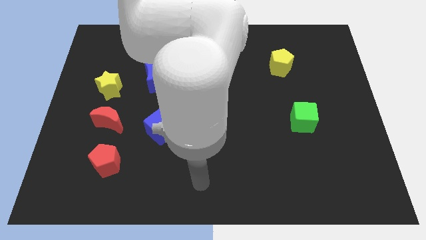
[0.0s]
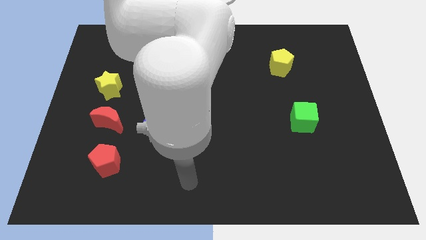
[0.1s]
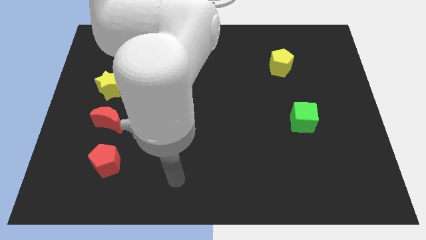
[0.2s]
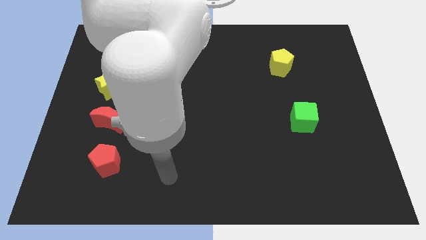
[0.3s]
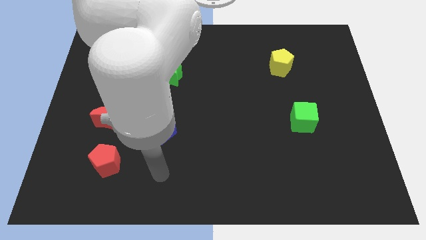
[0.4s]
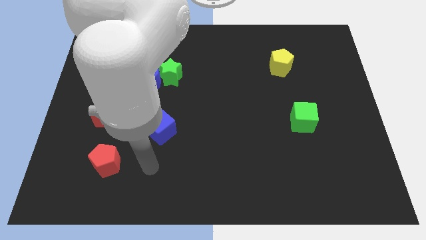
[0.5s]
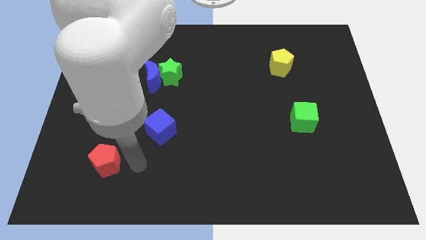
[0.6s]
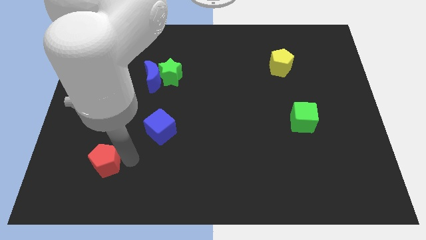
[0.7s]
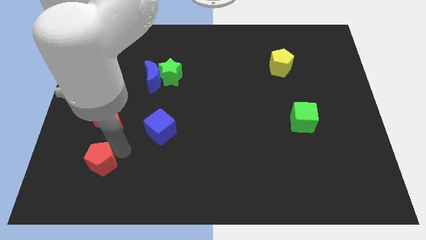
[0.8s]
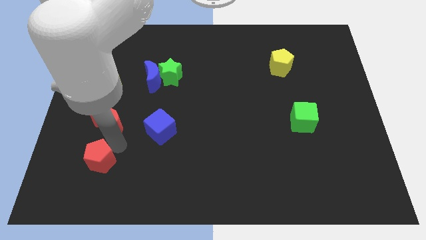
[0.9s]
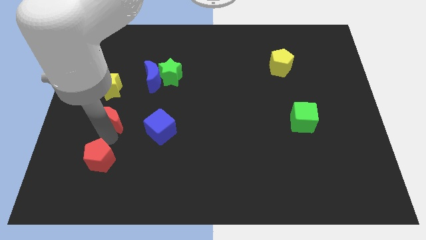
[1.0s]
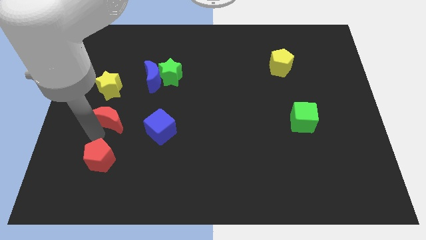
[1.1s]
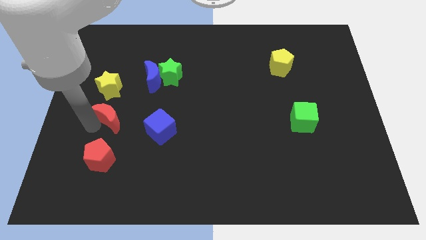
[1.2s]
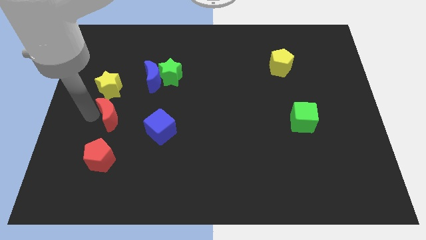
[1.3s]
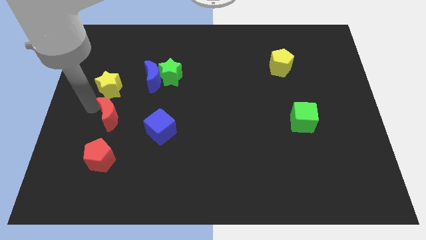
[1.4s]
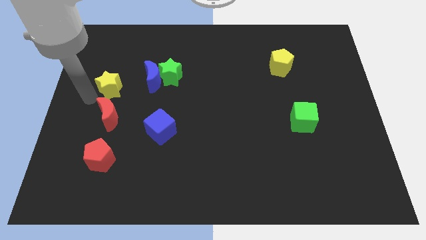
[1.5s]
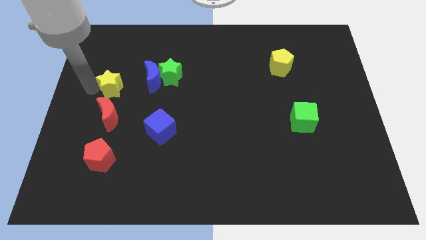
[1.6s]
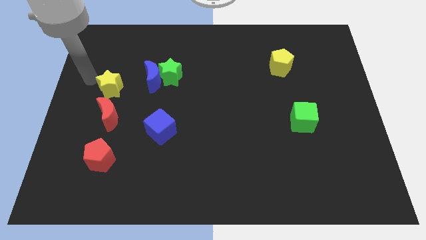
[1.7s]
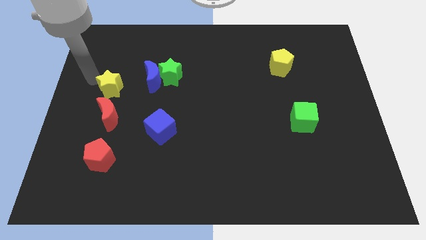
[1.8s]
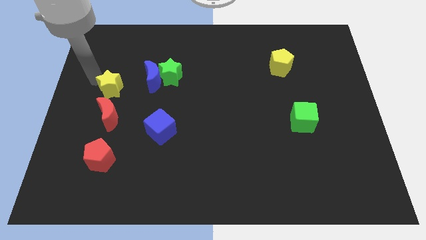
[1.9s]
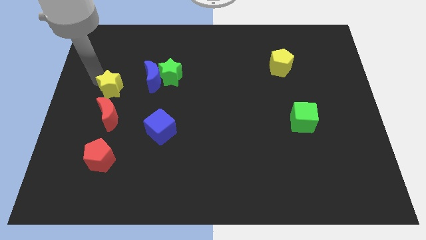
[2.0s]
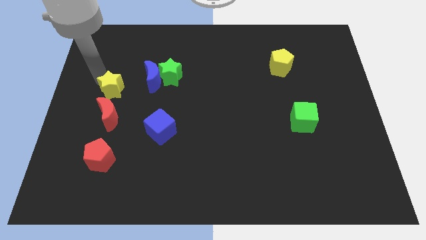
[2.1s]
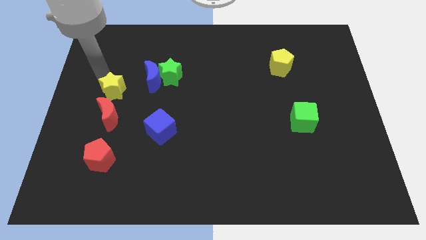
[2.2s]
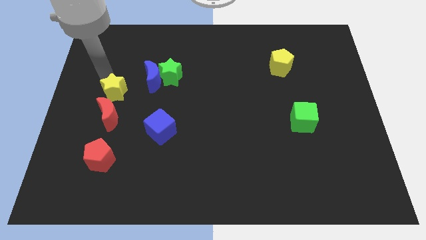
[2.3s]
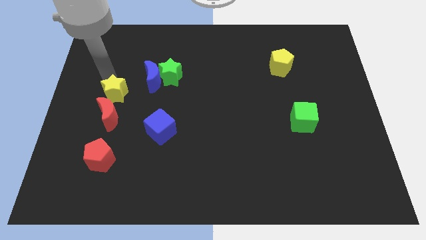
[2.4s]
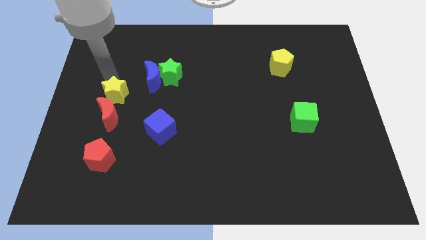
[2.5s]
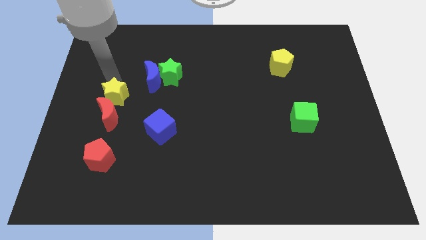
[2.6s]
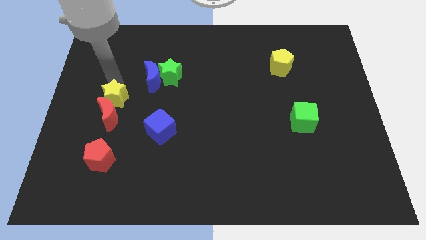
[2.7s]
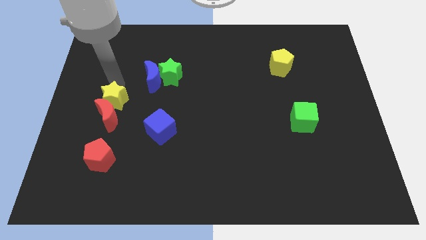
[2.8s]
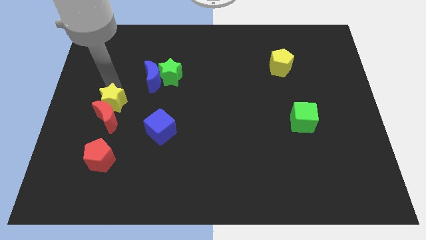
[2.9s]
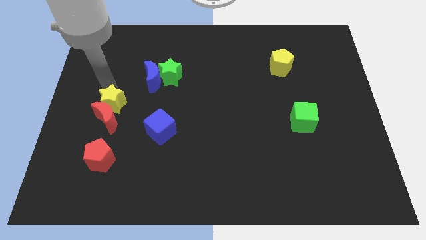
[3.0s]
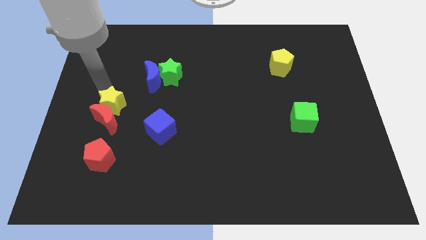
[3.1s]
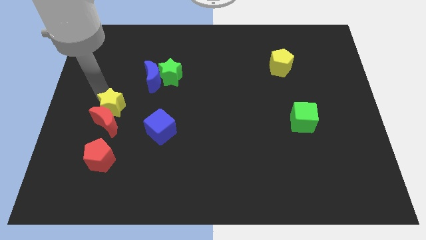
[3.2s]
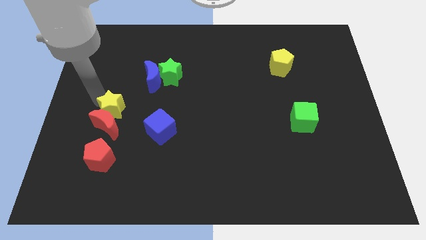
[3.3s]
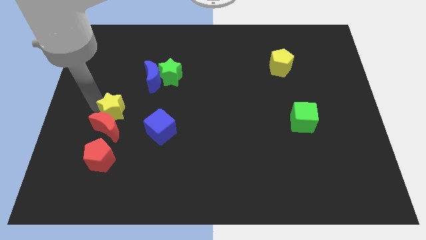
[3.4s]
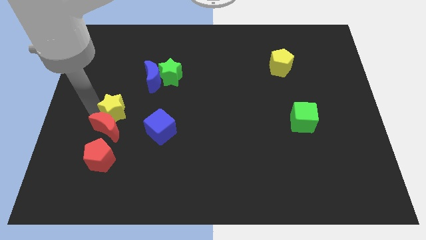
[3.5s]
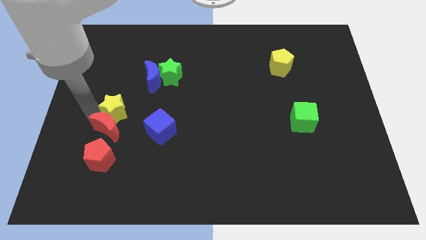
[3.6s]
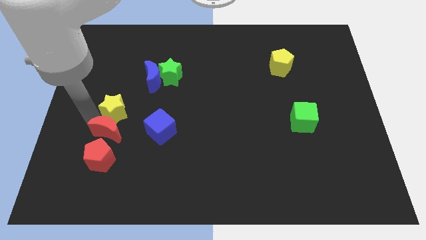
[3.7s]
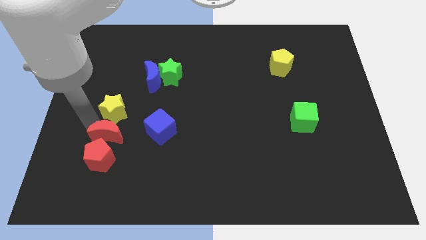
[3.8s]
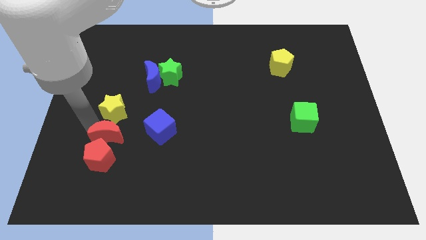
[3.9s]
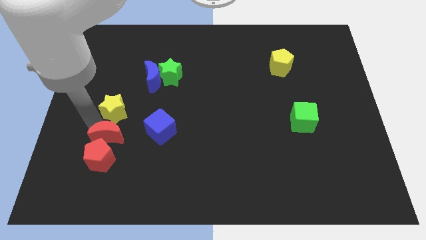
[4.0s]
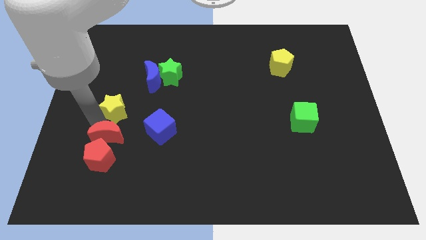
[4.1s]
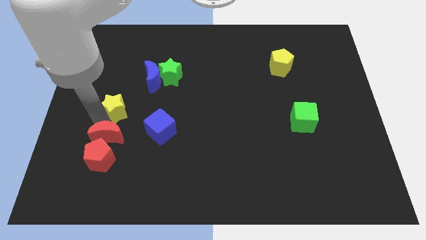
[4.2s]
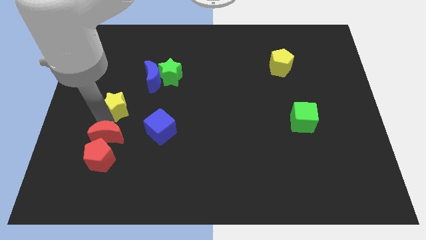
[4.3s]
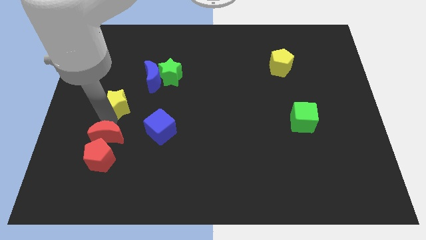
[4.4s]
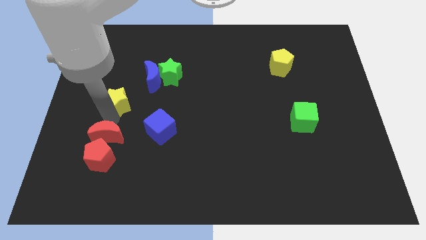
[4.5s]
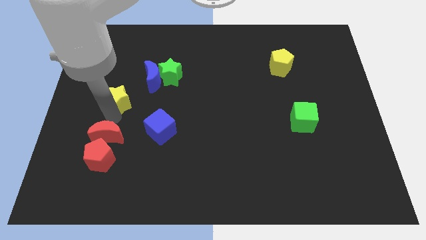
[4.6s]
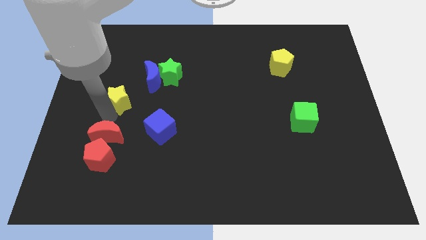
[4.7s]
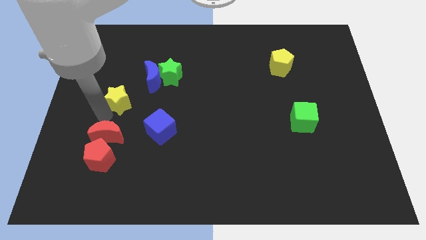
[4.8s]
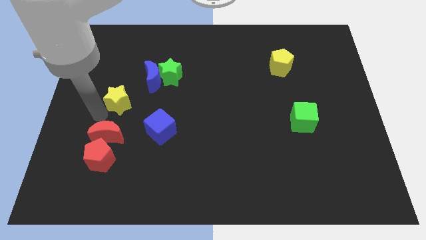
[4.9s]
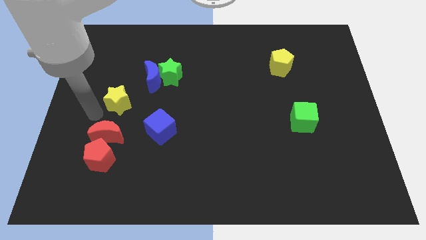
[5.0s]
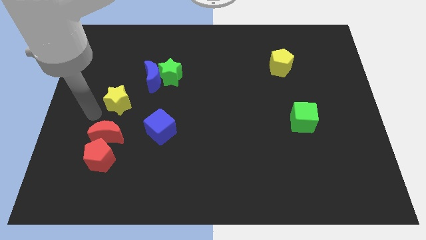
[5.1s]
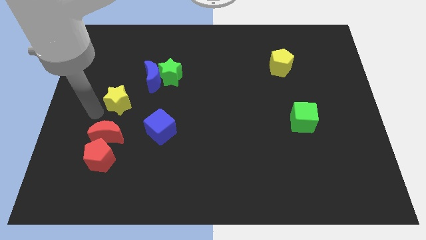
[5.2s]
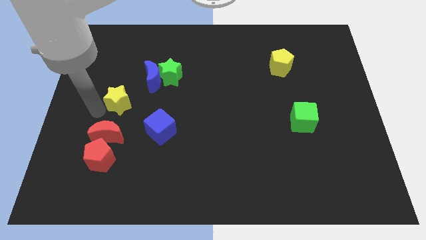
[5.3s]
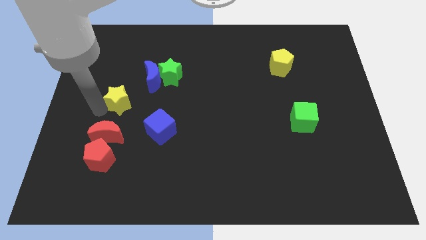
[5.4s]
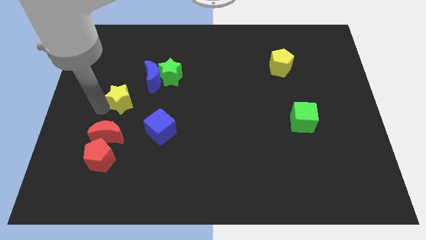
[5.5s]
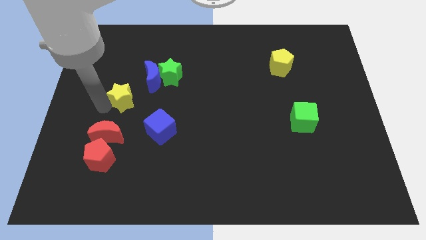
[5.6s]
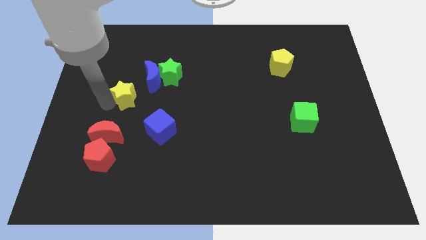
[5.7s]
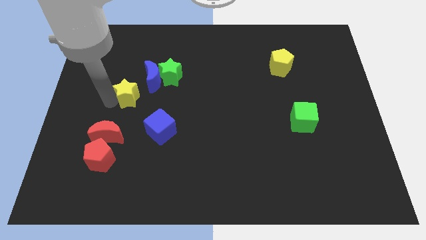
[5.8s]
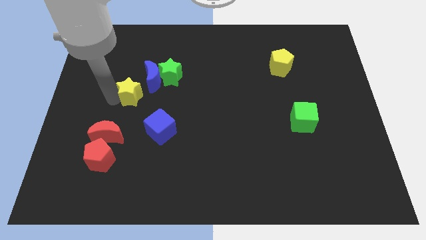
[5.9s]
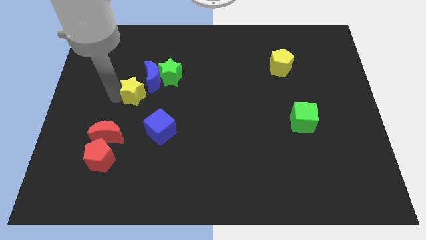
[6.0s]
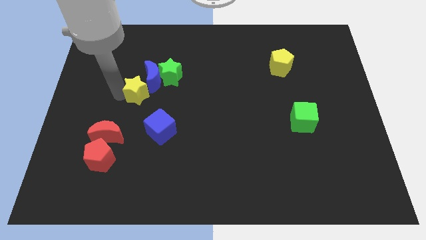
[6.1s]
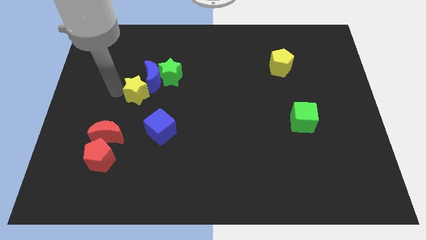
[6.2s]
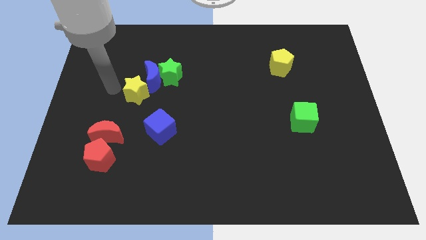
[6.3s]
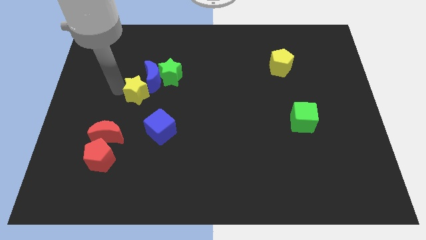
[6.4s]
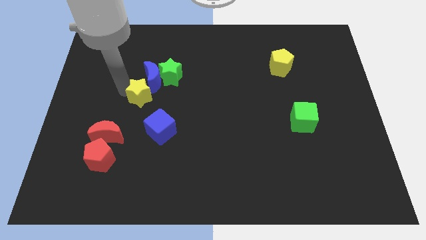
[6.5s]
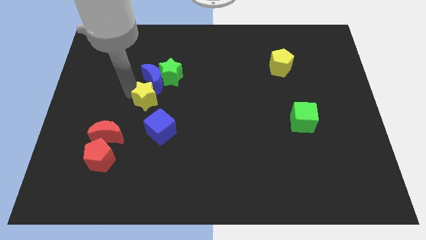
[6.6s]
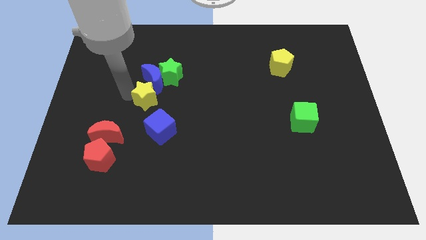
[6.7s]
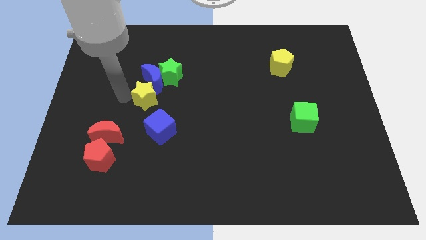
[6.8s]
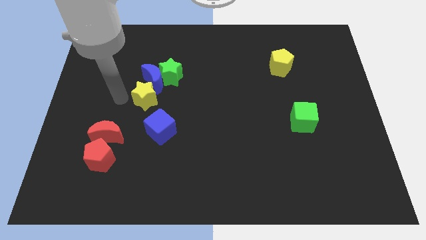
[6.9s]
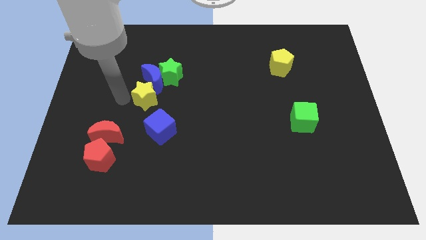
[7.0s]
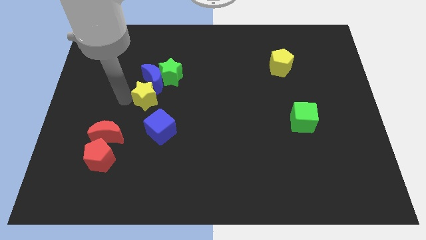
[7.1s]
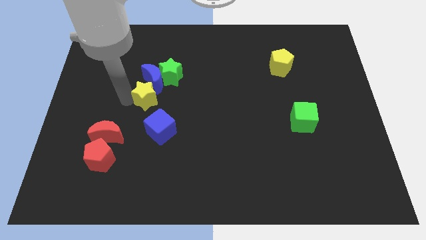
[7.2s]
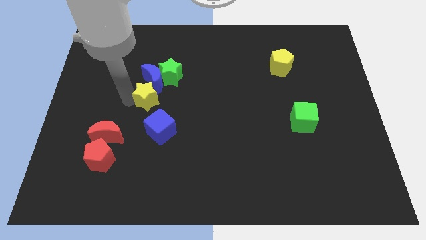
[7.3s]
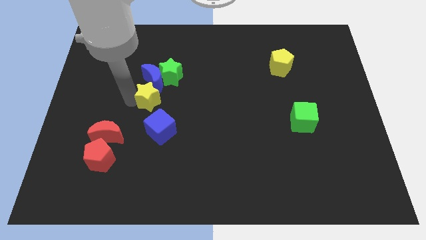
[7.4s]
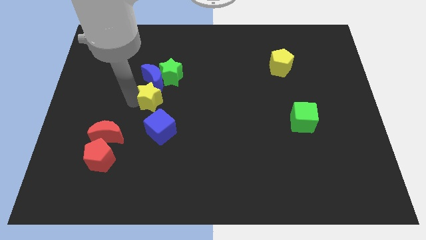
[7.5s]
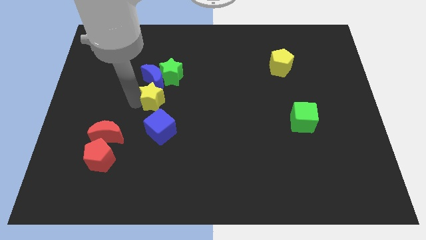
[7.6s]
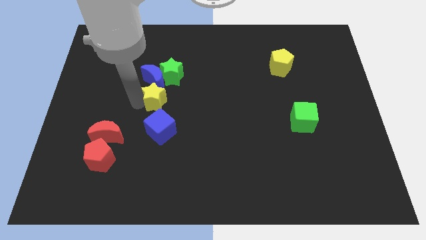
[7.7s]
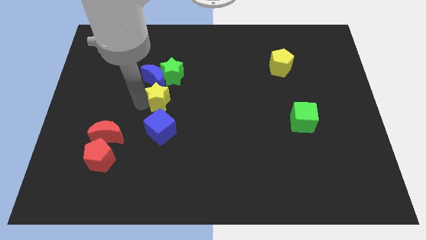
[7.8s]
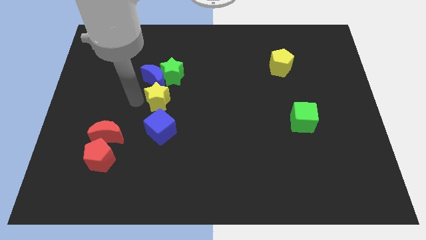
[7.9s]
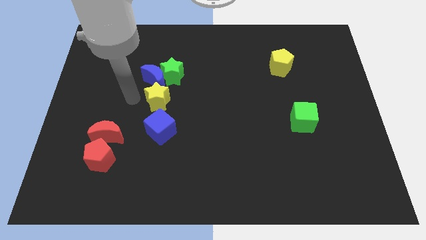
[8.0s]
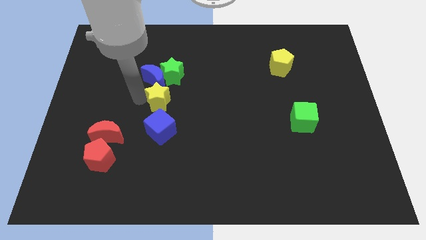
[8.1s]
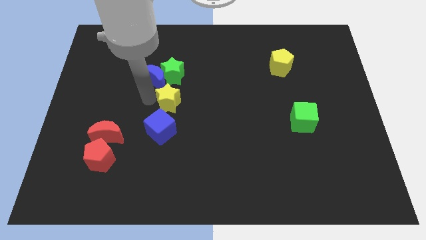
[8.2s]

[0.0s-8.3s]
slide the yellow star to the center
